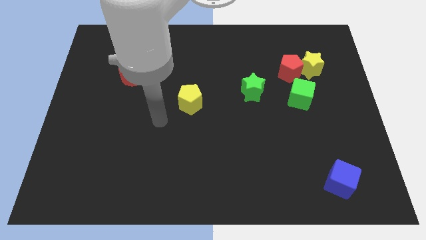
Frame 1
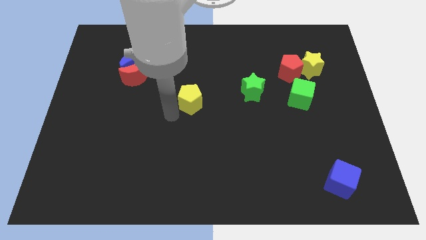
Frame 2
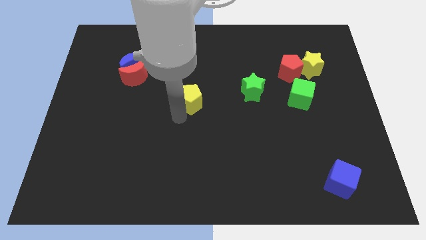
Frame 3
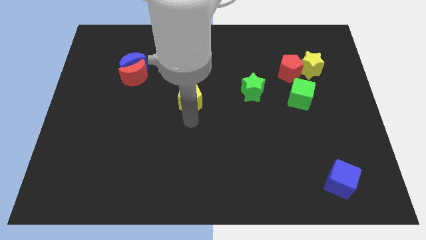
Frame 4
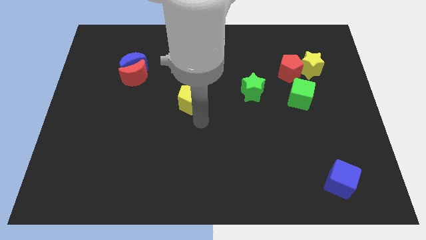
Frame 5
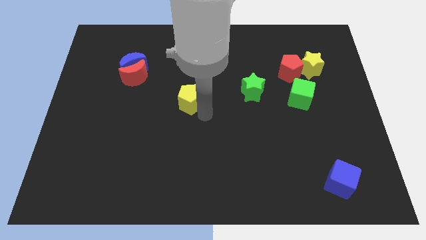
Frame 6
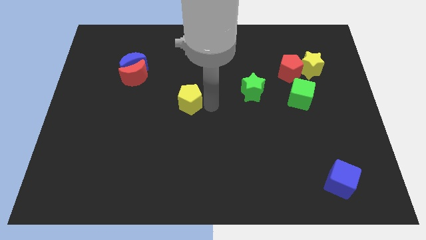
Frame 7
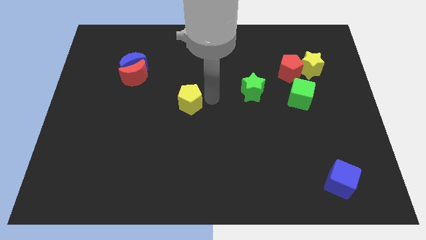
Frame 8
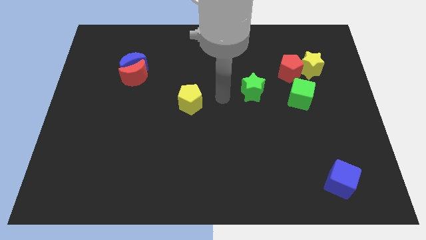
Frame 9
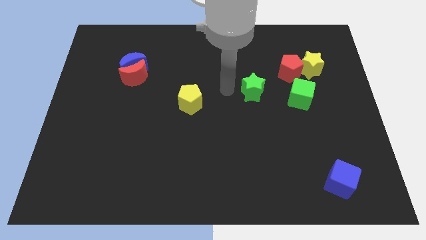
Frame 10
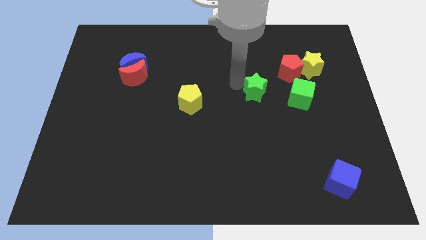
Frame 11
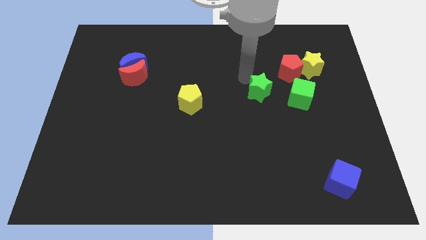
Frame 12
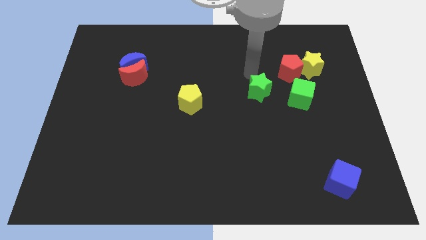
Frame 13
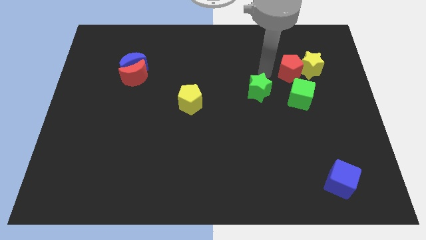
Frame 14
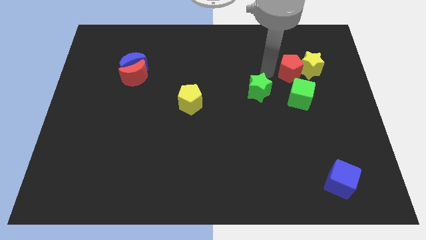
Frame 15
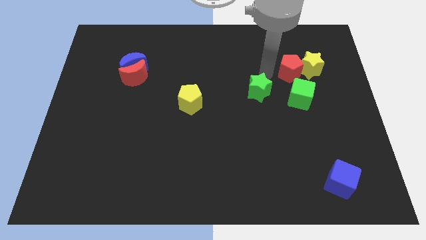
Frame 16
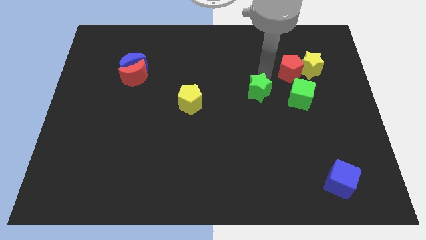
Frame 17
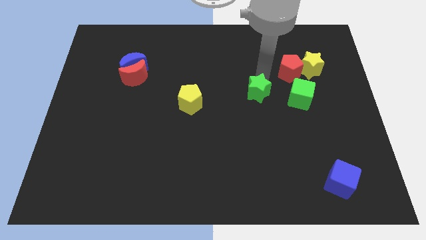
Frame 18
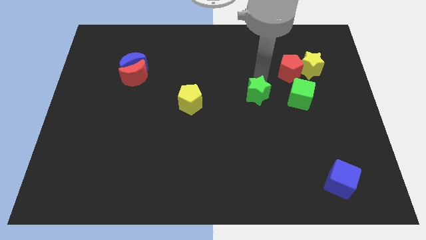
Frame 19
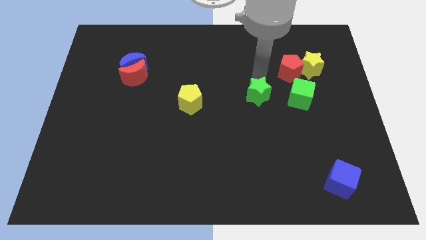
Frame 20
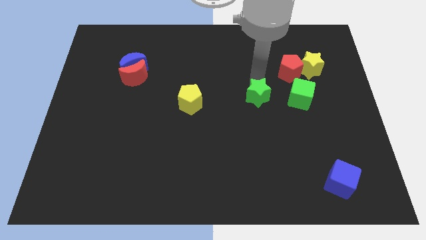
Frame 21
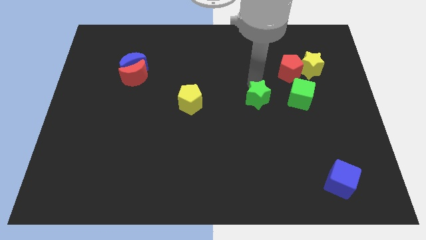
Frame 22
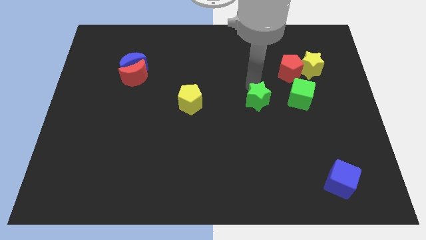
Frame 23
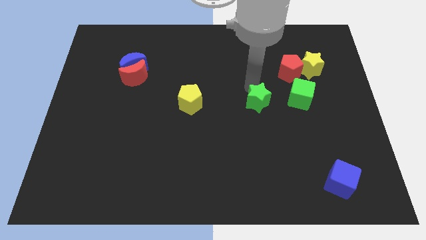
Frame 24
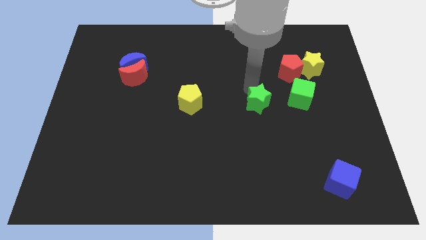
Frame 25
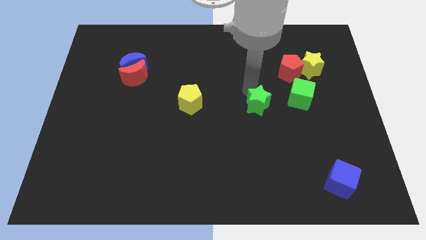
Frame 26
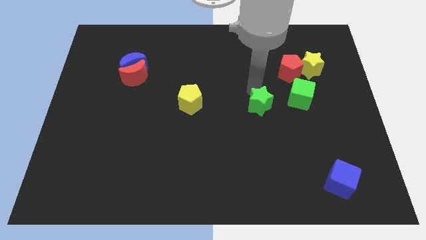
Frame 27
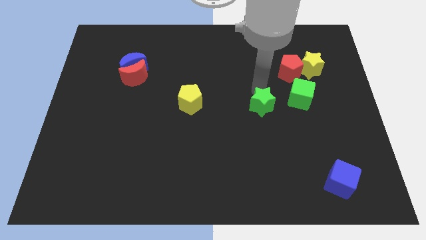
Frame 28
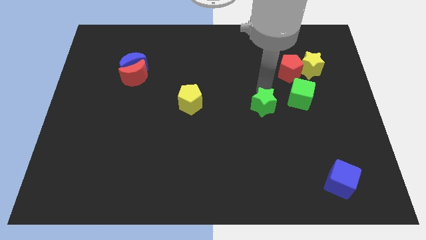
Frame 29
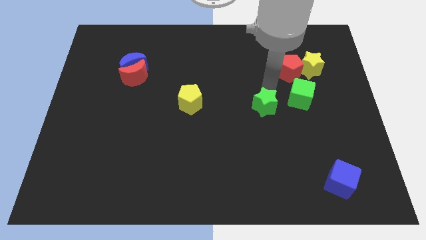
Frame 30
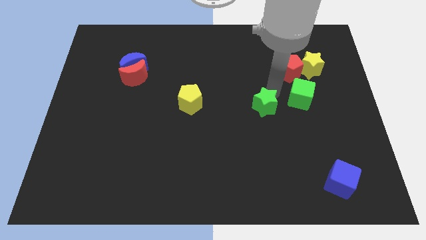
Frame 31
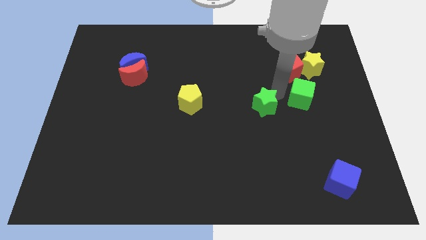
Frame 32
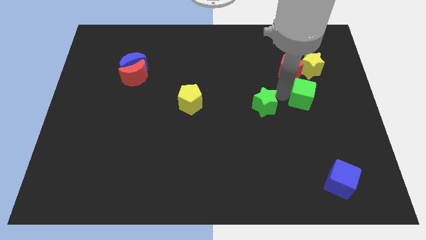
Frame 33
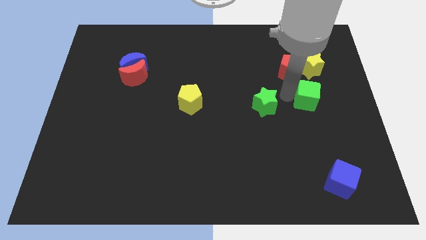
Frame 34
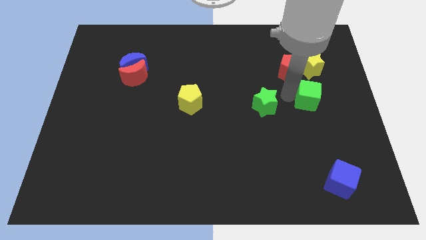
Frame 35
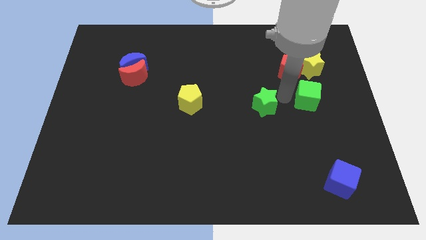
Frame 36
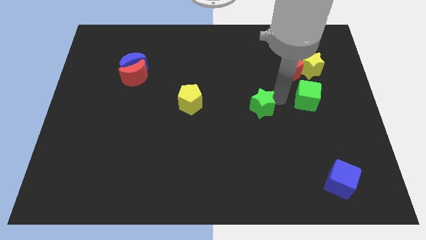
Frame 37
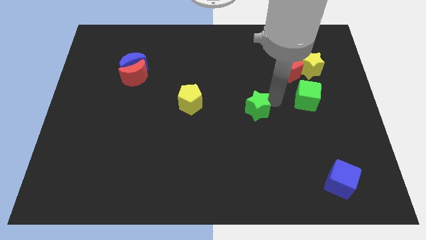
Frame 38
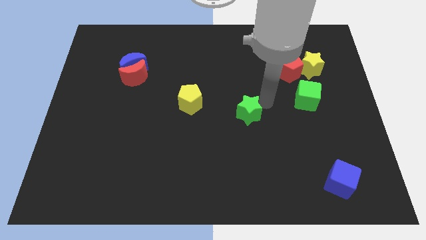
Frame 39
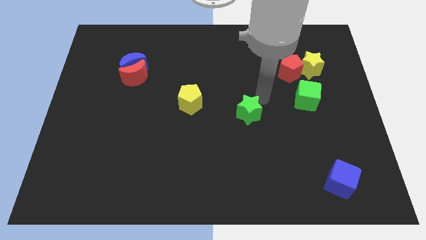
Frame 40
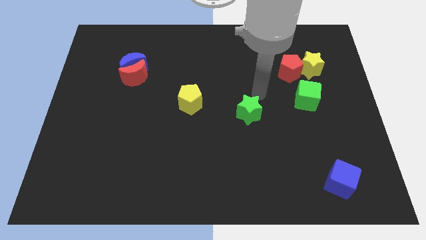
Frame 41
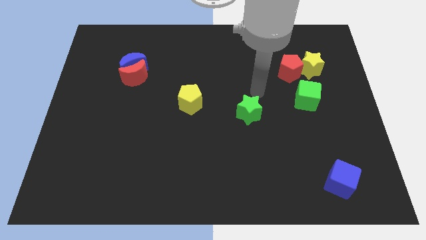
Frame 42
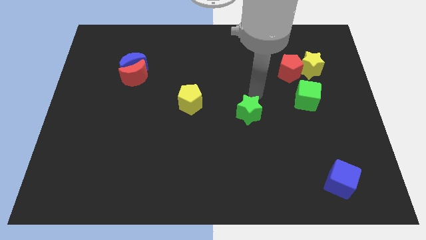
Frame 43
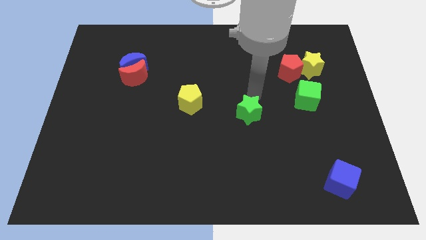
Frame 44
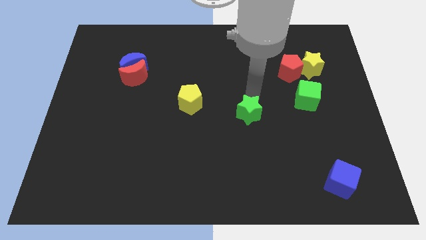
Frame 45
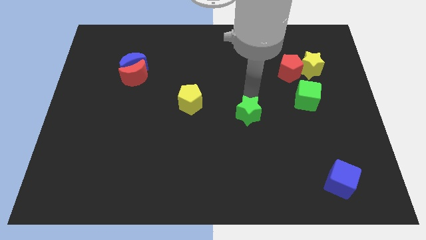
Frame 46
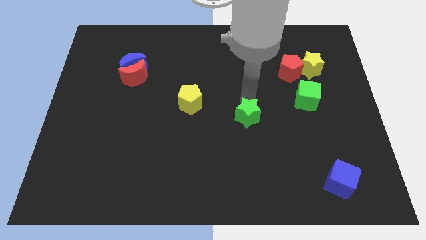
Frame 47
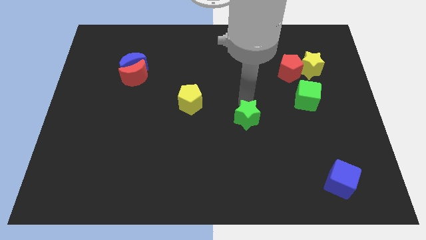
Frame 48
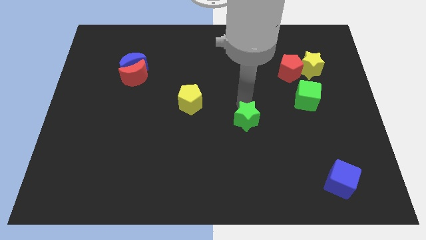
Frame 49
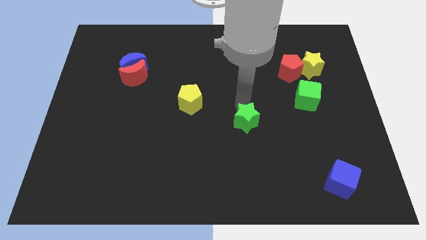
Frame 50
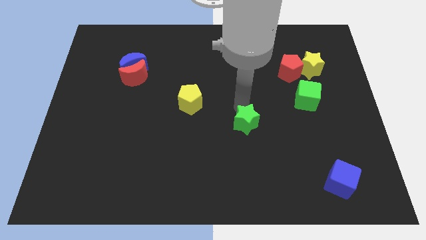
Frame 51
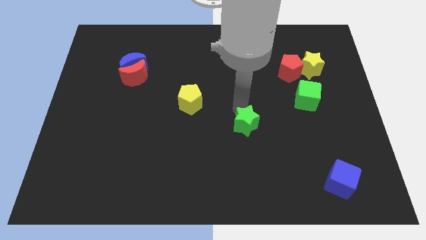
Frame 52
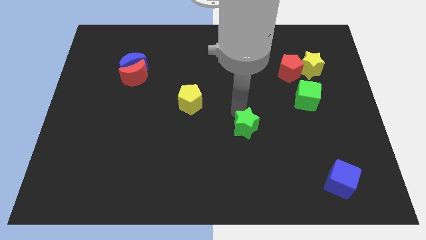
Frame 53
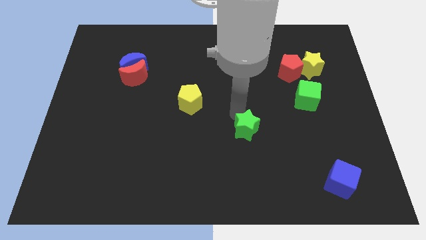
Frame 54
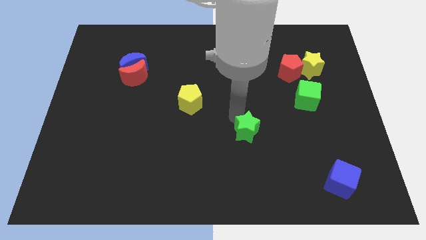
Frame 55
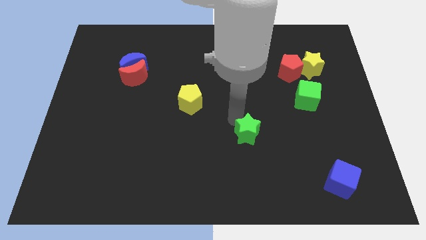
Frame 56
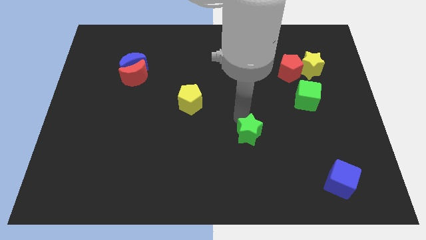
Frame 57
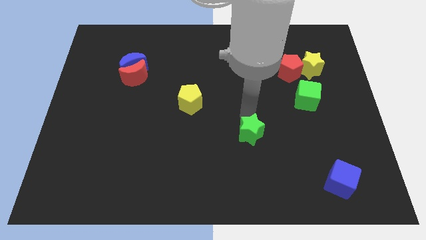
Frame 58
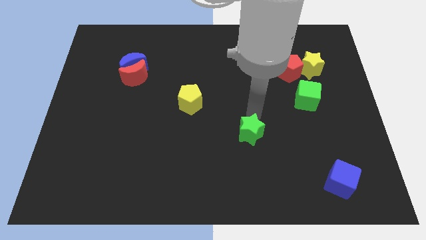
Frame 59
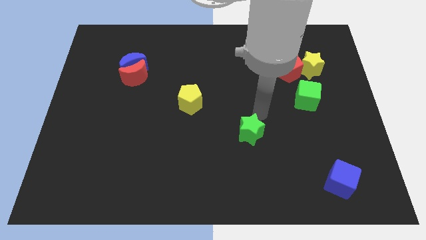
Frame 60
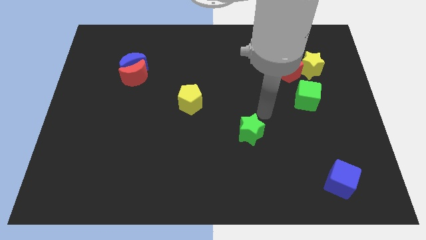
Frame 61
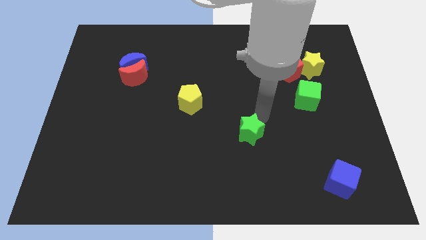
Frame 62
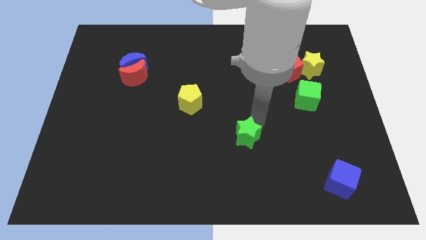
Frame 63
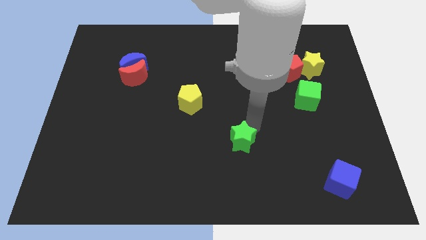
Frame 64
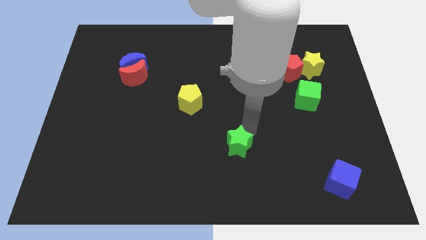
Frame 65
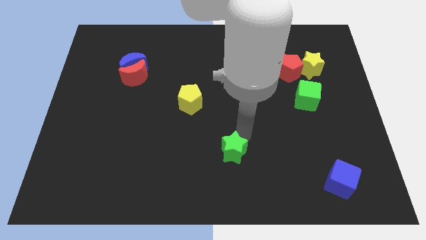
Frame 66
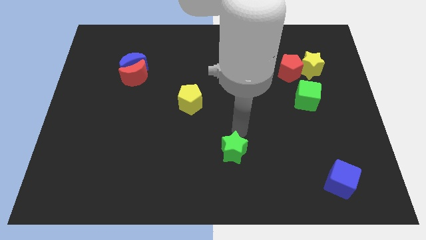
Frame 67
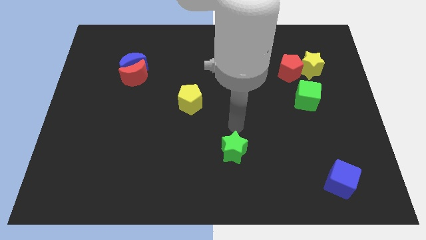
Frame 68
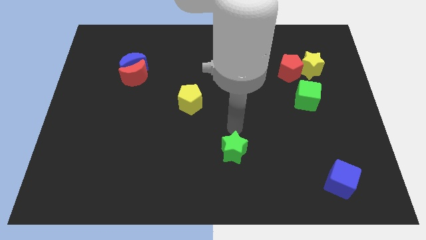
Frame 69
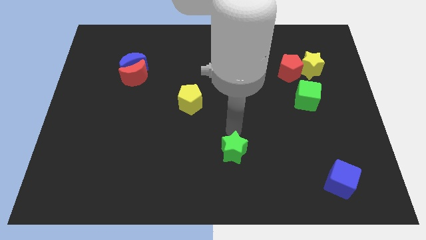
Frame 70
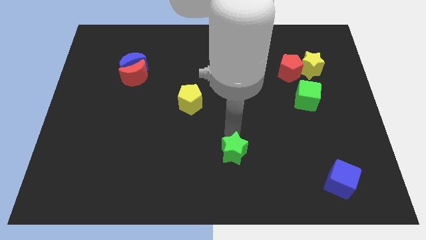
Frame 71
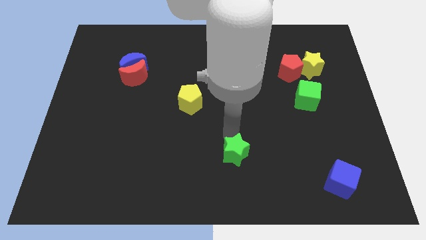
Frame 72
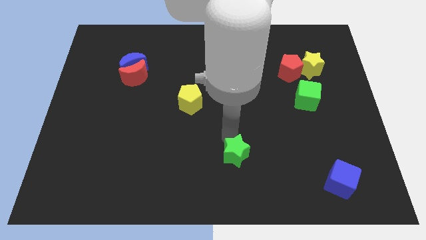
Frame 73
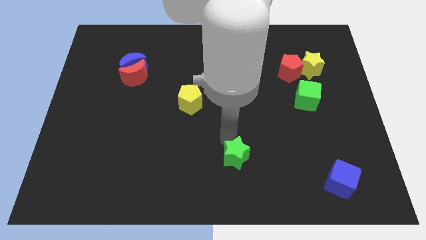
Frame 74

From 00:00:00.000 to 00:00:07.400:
move the green star to the bottom side
